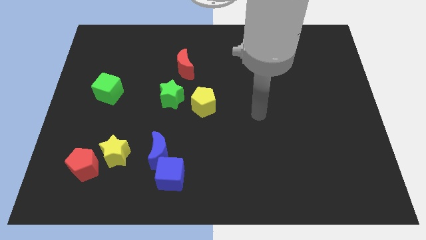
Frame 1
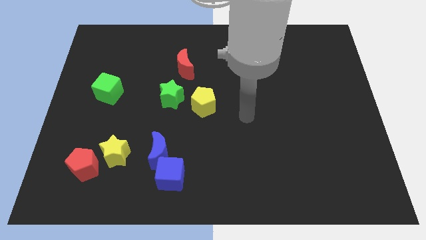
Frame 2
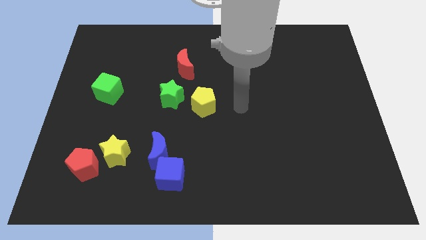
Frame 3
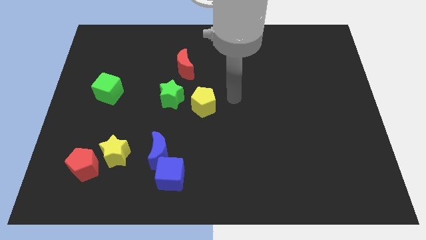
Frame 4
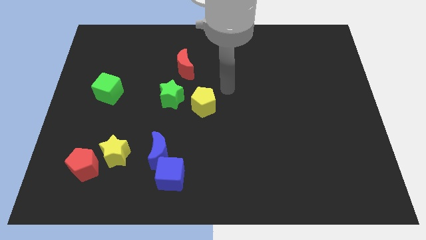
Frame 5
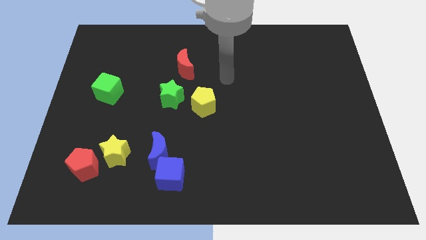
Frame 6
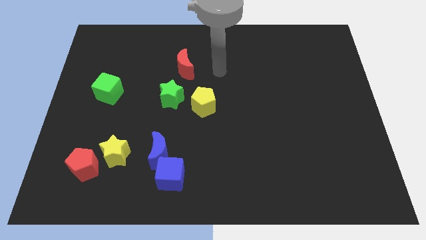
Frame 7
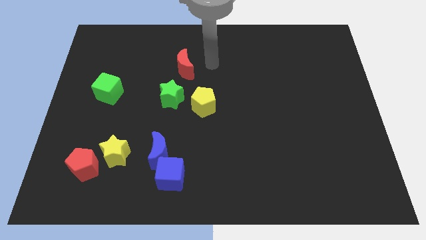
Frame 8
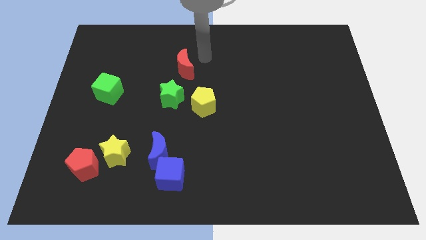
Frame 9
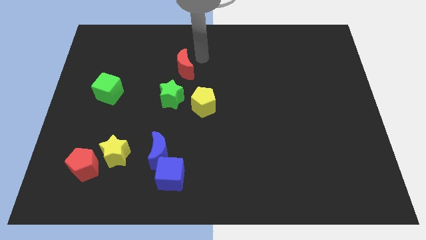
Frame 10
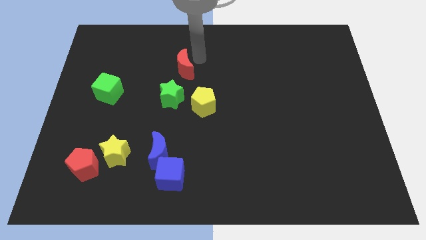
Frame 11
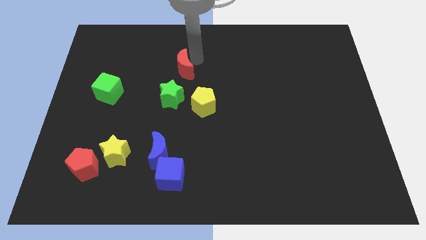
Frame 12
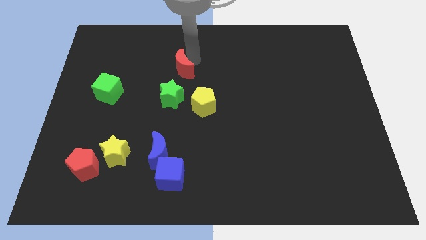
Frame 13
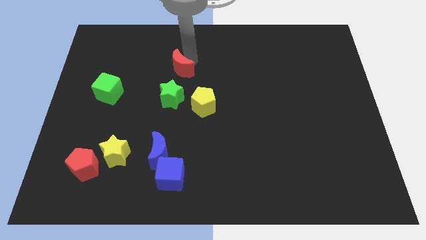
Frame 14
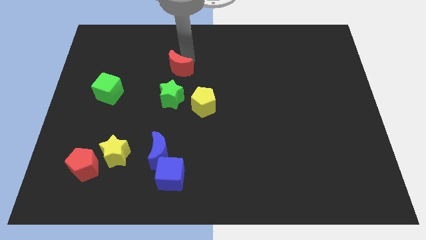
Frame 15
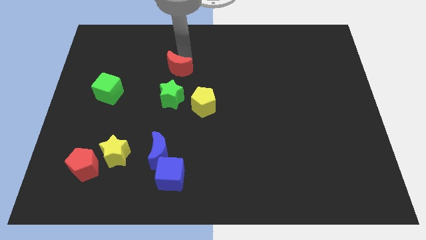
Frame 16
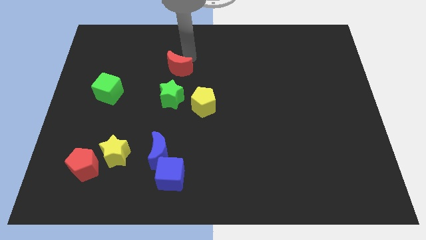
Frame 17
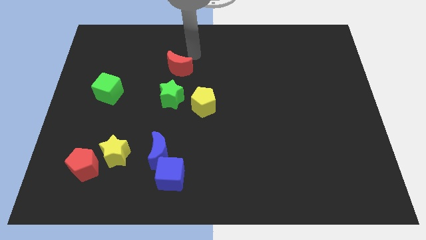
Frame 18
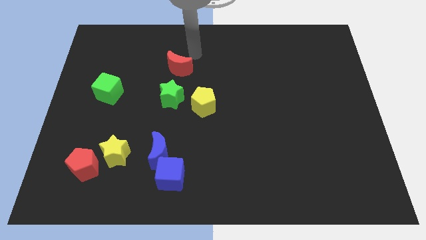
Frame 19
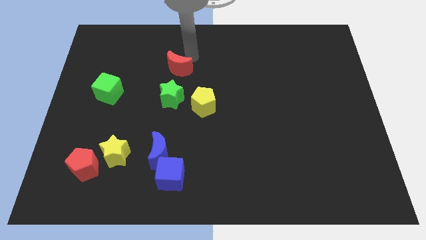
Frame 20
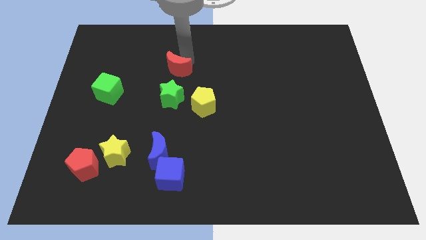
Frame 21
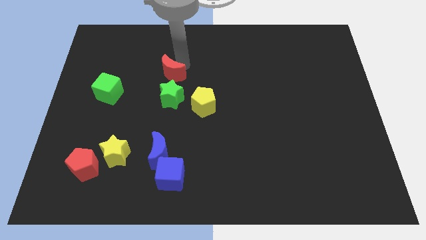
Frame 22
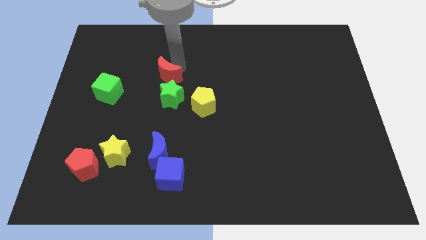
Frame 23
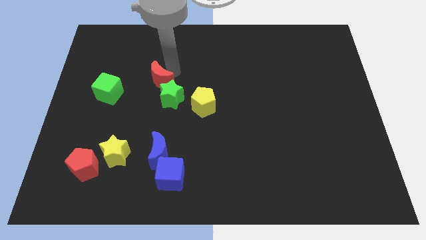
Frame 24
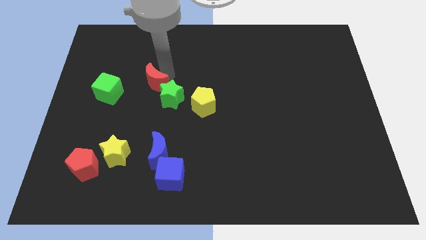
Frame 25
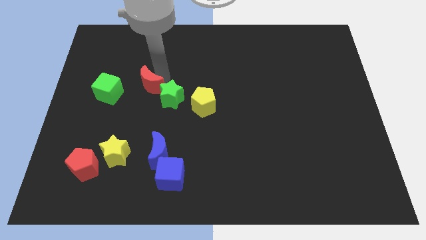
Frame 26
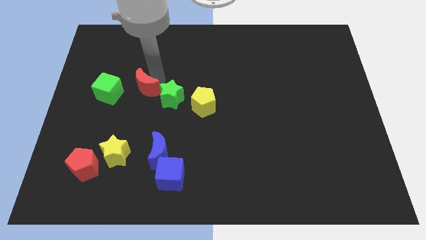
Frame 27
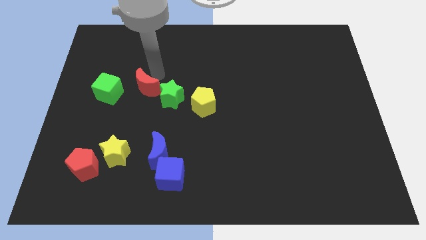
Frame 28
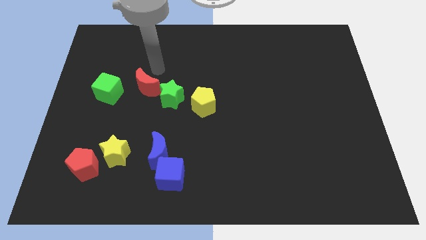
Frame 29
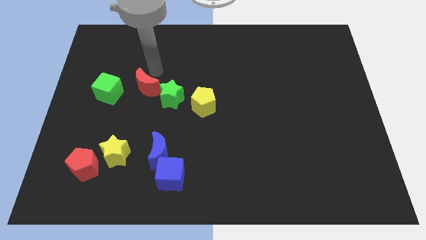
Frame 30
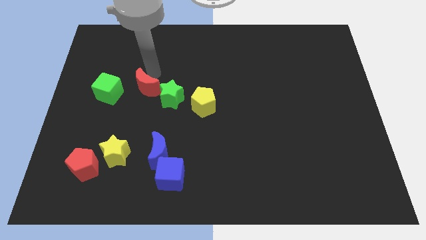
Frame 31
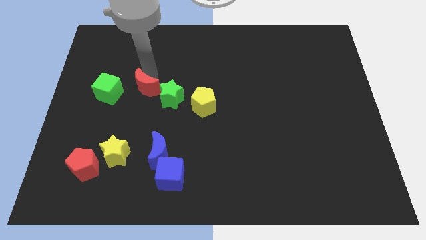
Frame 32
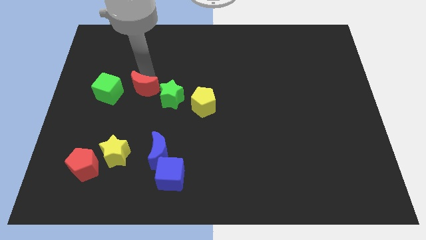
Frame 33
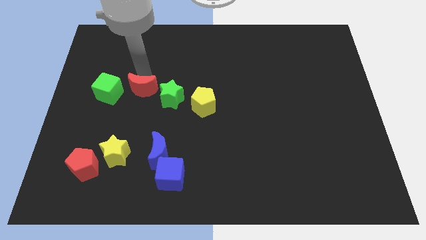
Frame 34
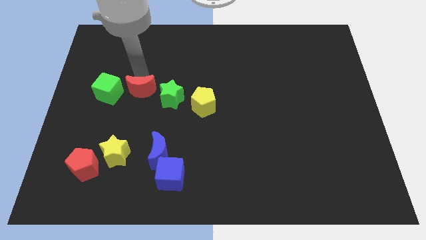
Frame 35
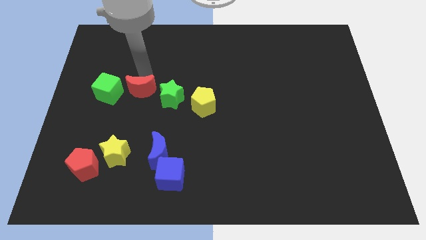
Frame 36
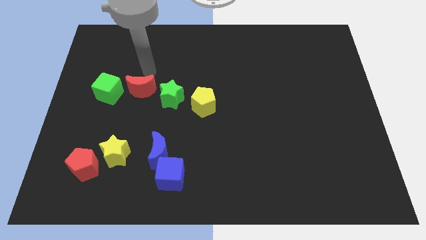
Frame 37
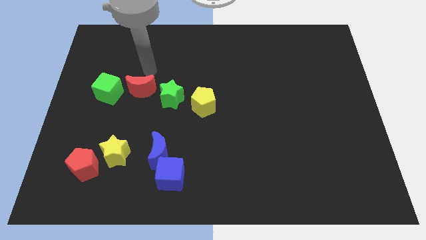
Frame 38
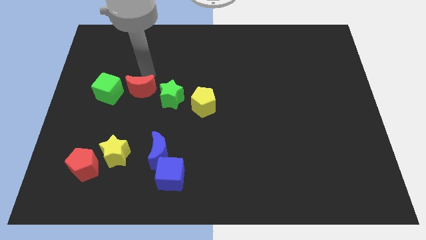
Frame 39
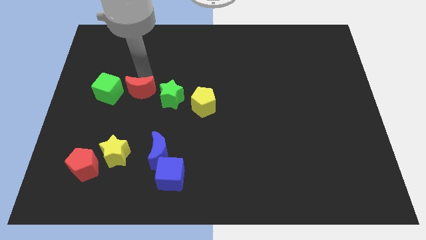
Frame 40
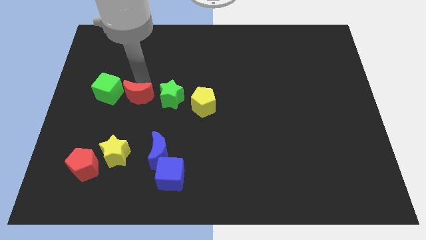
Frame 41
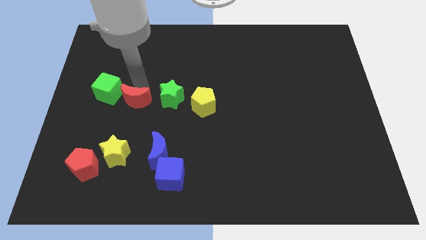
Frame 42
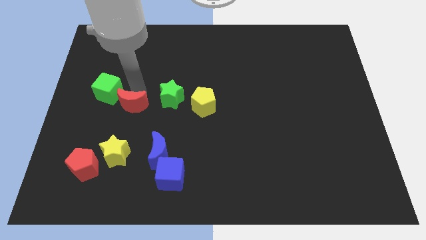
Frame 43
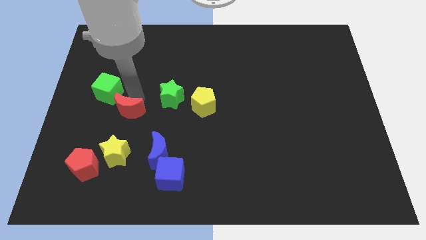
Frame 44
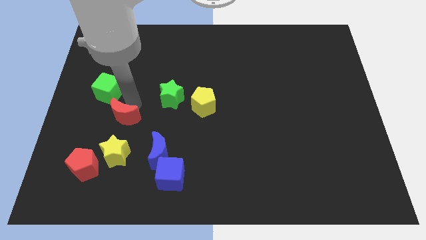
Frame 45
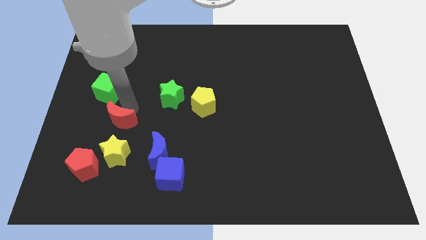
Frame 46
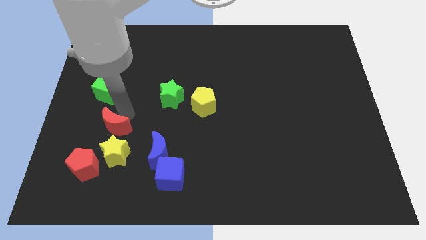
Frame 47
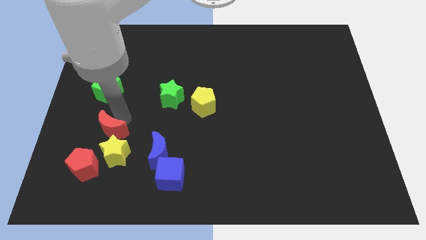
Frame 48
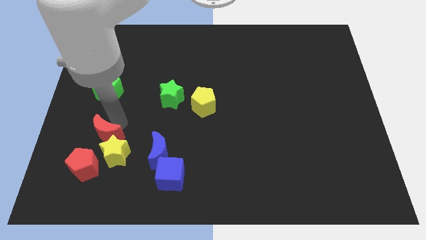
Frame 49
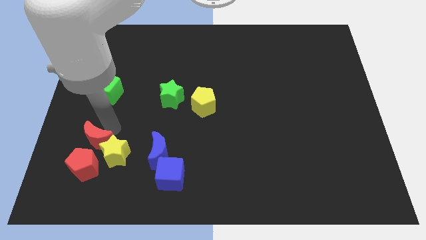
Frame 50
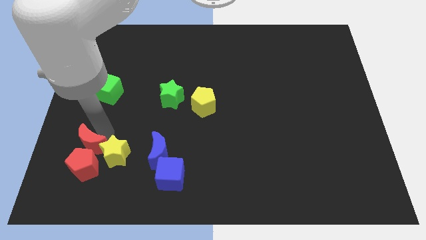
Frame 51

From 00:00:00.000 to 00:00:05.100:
move the red moon to the red pentagon

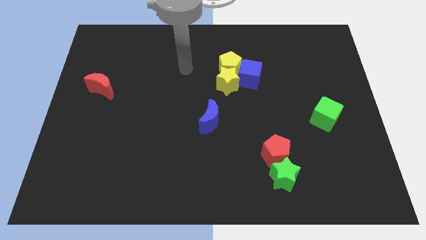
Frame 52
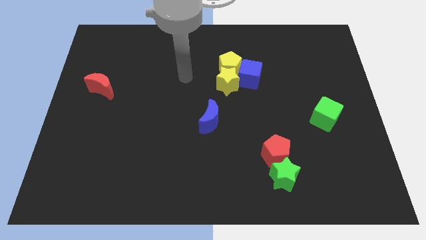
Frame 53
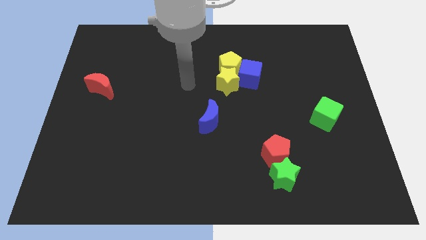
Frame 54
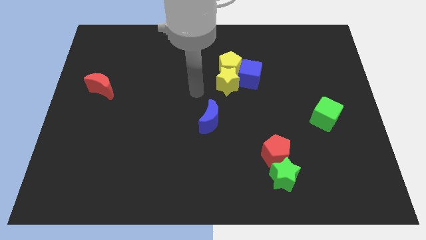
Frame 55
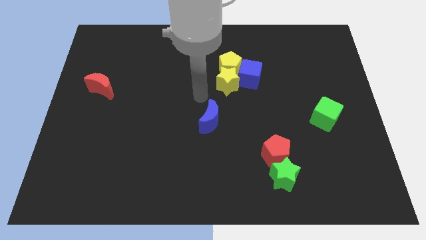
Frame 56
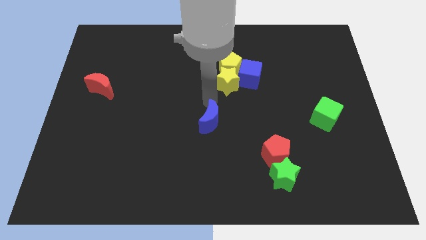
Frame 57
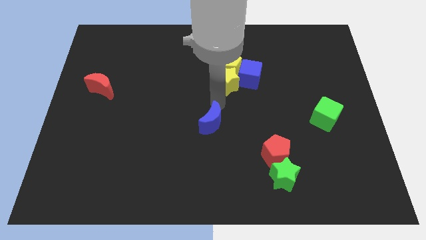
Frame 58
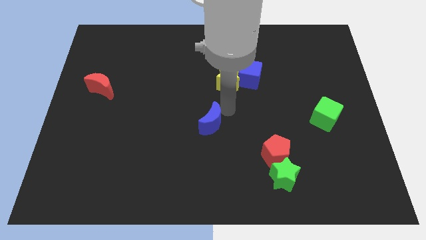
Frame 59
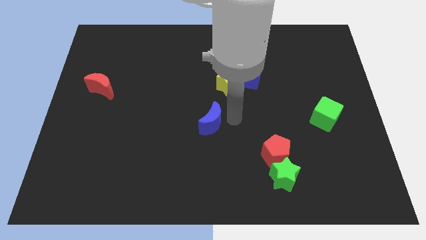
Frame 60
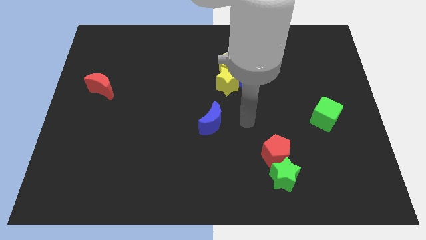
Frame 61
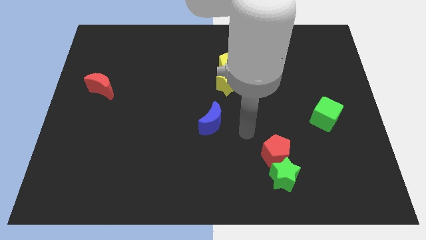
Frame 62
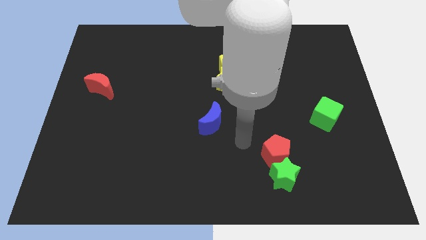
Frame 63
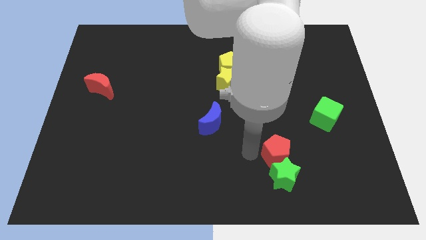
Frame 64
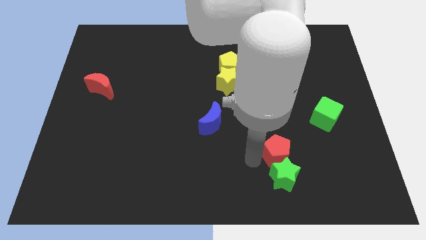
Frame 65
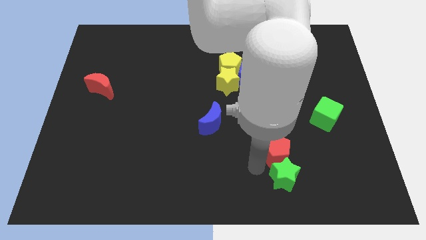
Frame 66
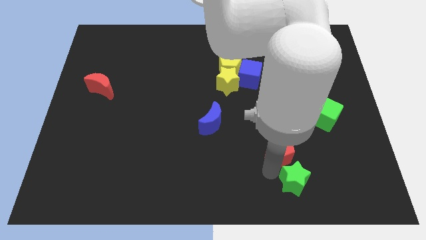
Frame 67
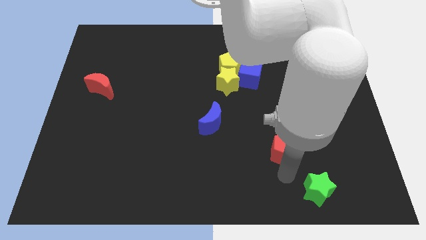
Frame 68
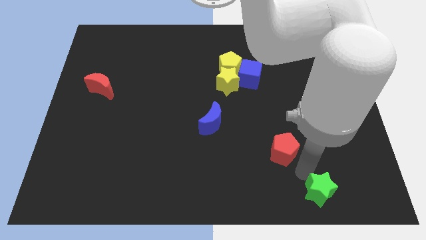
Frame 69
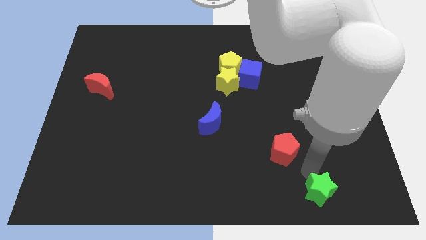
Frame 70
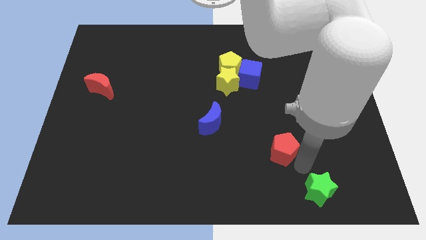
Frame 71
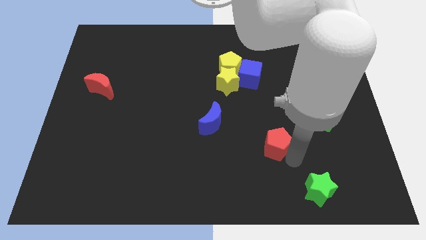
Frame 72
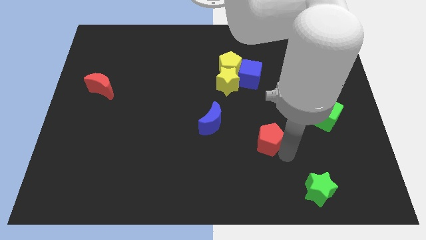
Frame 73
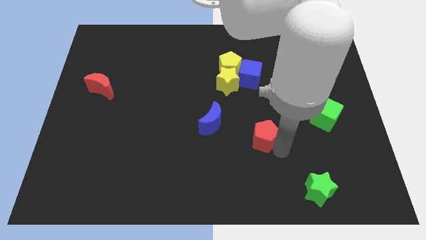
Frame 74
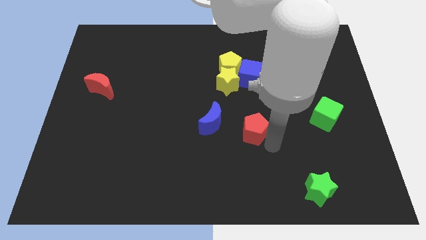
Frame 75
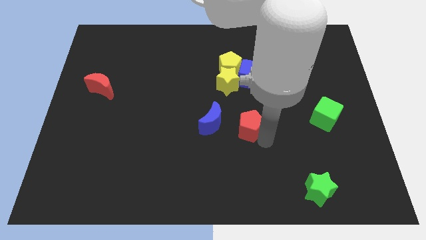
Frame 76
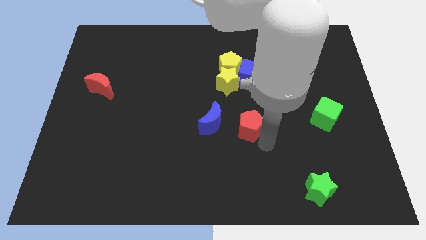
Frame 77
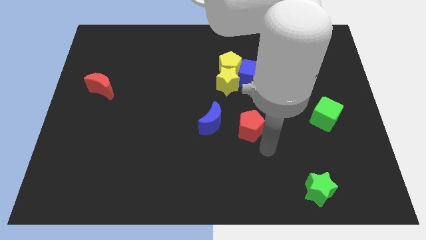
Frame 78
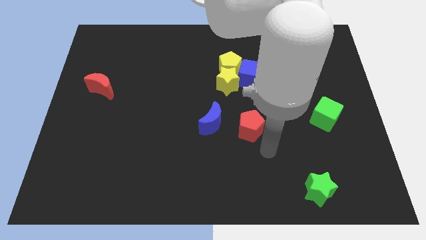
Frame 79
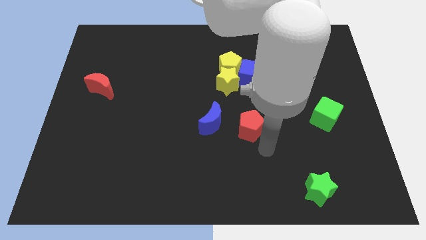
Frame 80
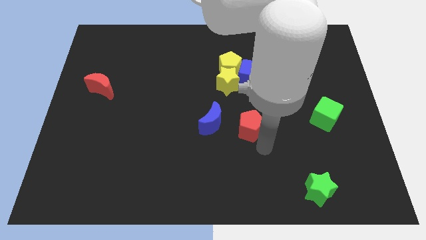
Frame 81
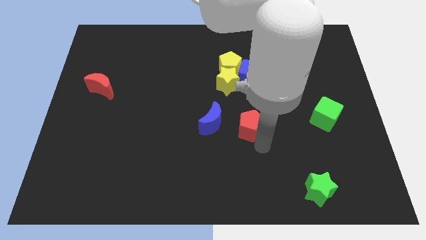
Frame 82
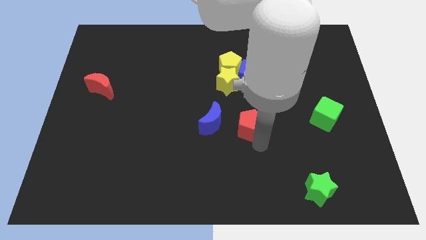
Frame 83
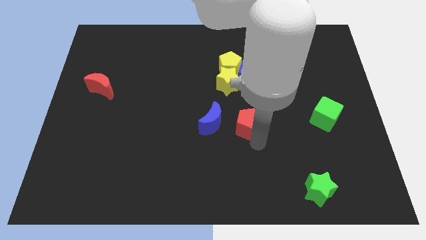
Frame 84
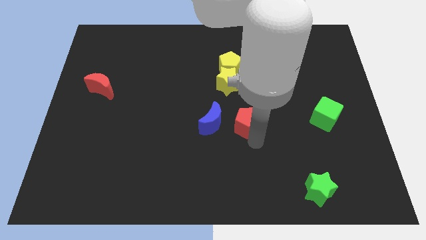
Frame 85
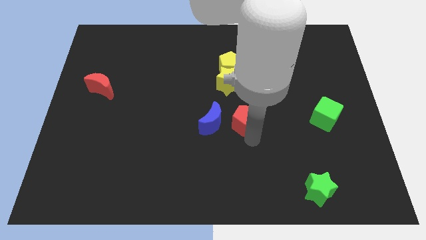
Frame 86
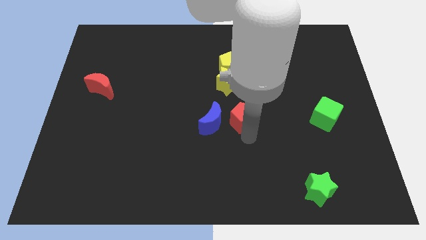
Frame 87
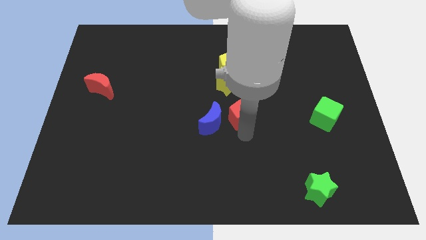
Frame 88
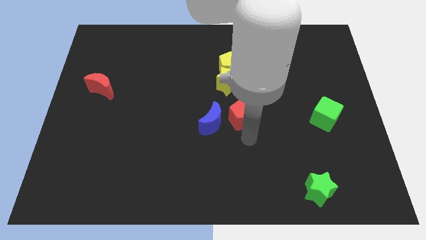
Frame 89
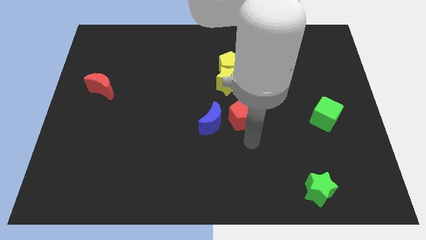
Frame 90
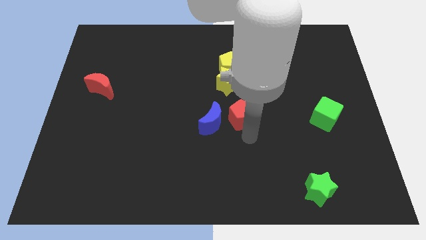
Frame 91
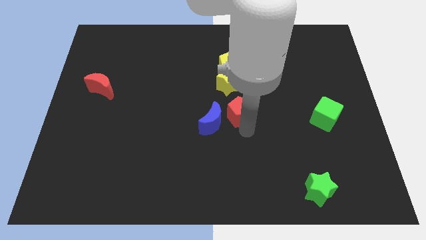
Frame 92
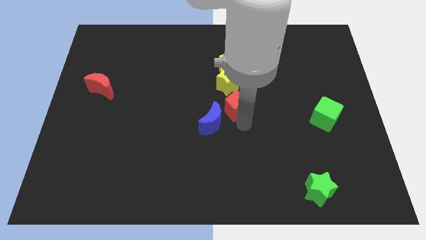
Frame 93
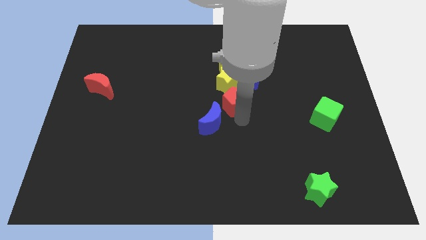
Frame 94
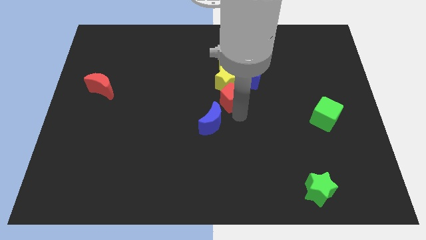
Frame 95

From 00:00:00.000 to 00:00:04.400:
put the red pentagon close to the yellow star
